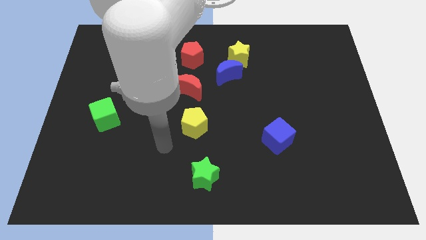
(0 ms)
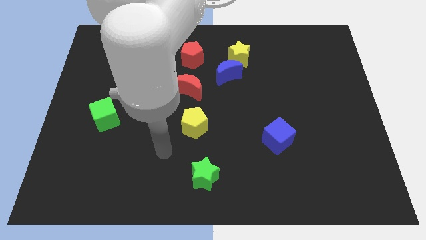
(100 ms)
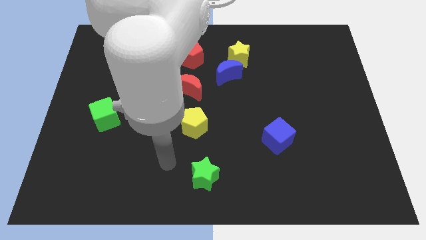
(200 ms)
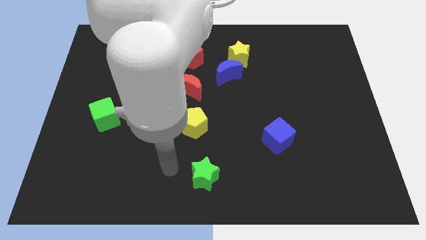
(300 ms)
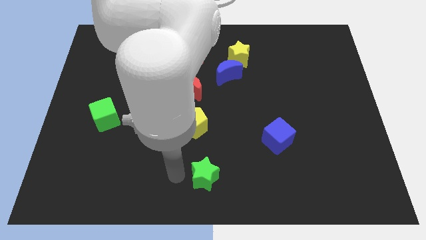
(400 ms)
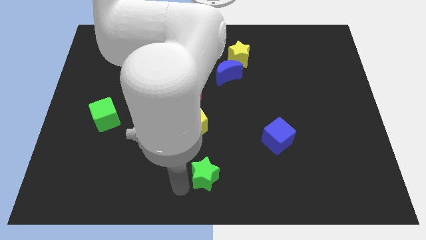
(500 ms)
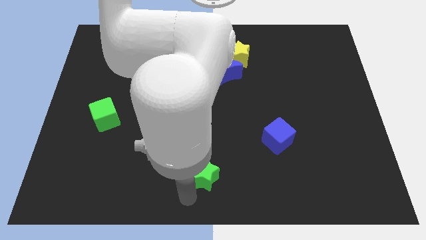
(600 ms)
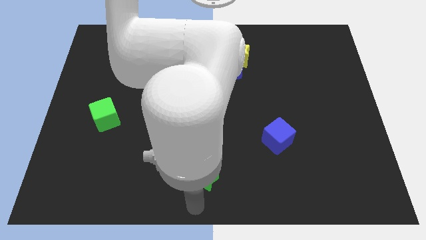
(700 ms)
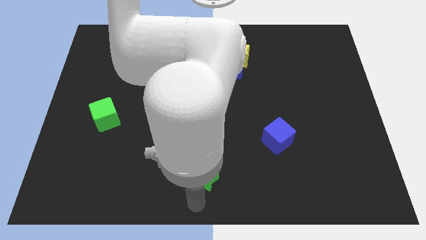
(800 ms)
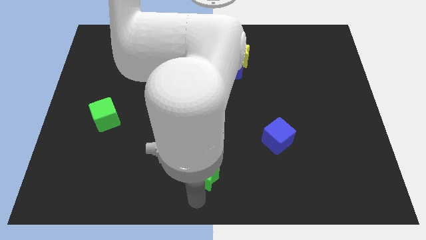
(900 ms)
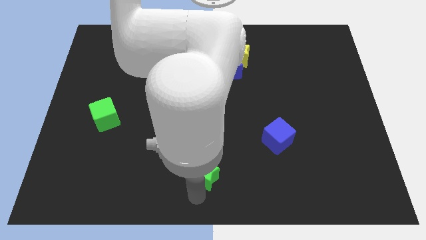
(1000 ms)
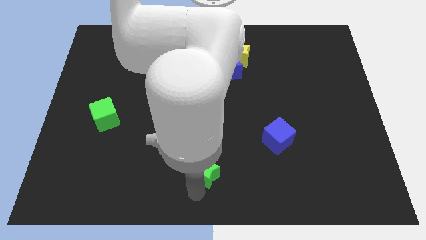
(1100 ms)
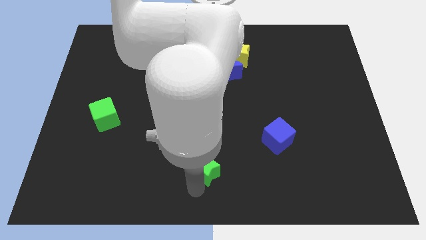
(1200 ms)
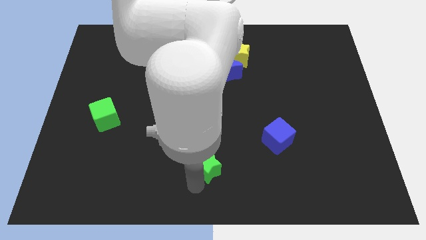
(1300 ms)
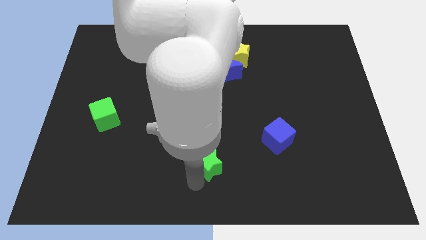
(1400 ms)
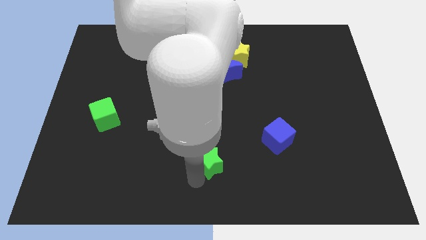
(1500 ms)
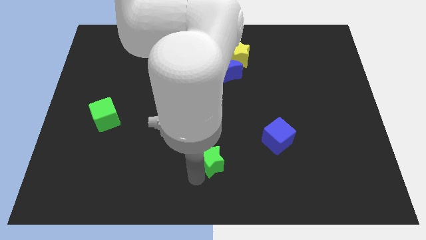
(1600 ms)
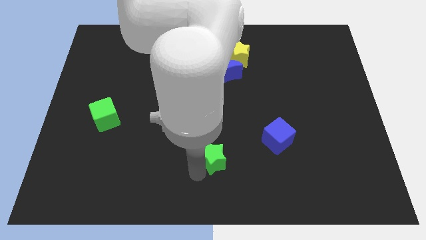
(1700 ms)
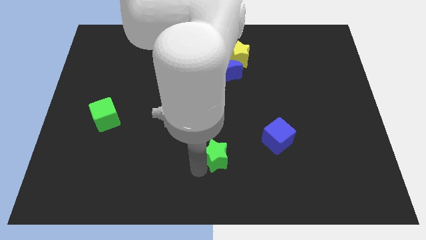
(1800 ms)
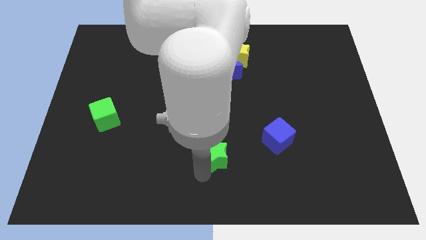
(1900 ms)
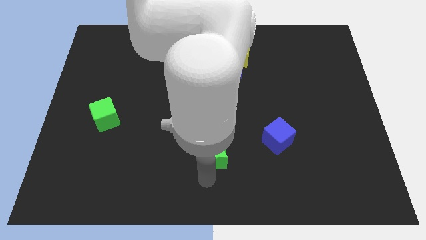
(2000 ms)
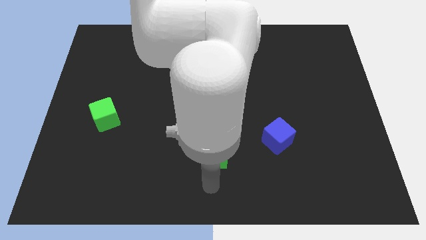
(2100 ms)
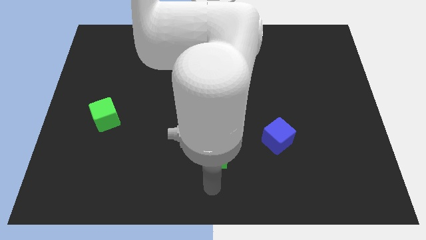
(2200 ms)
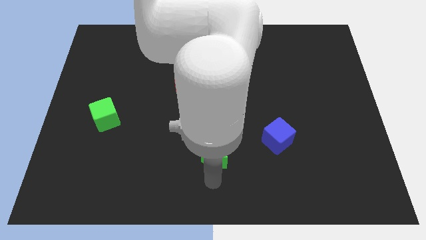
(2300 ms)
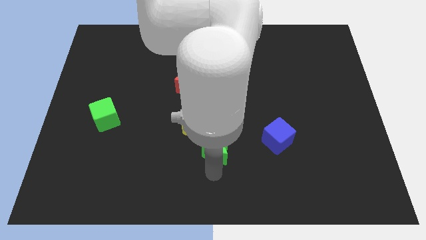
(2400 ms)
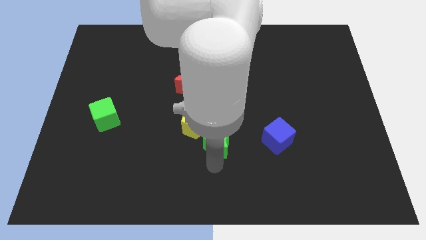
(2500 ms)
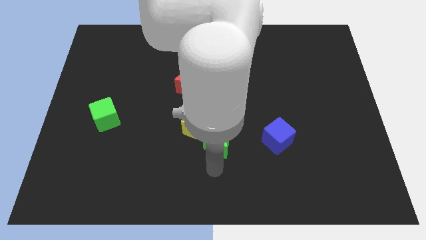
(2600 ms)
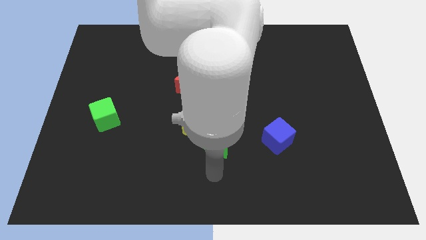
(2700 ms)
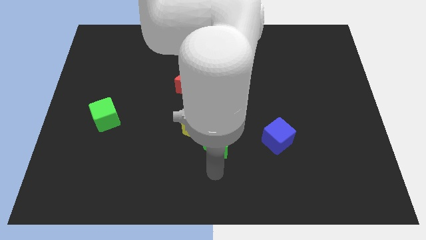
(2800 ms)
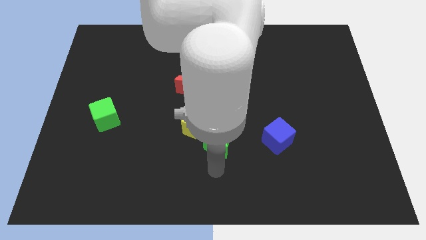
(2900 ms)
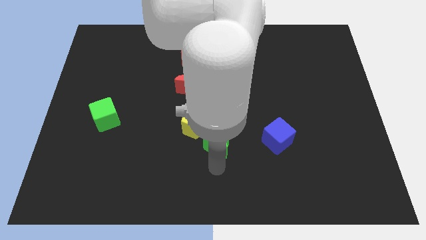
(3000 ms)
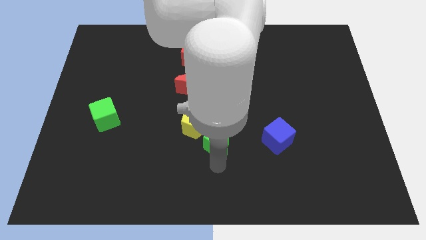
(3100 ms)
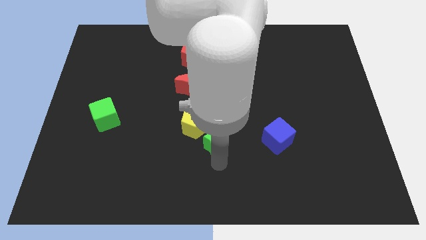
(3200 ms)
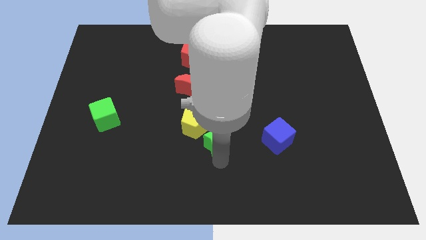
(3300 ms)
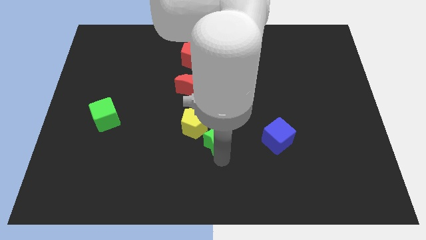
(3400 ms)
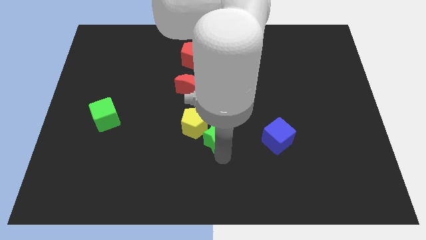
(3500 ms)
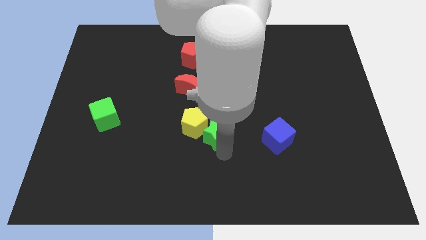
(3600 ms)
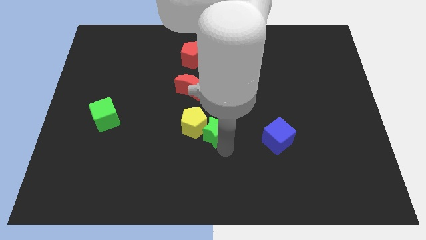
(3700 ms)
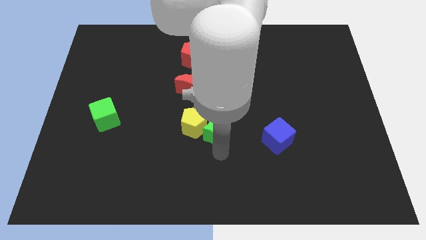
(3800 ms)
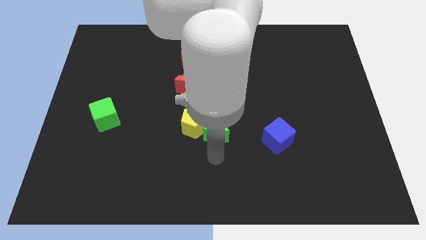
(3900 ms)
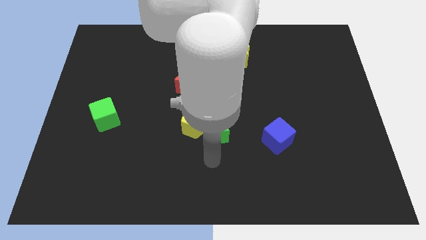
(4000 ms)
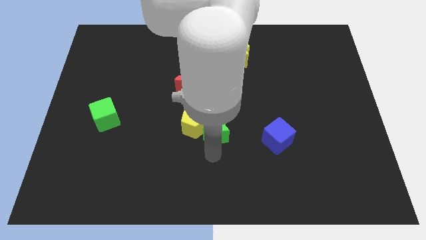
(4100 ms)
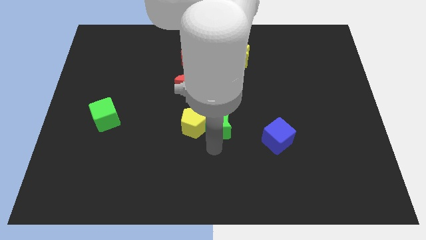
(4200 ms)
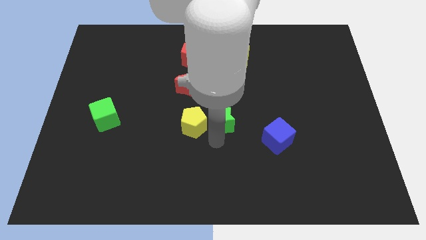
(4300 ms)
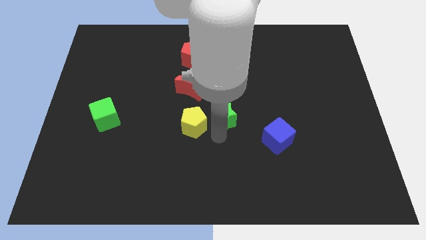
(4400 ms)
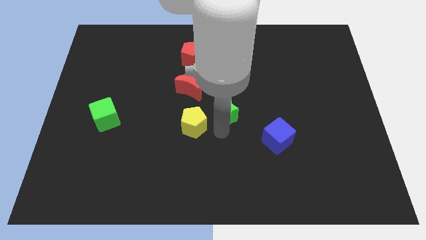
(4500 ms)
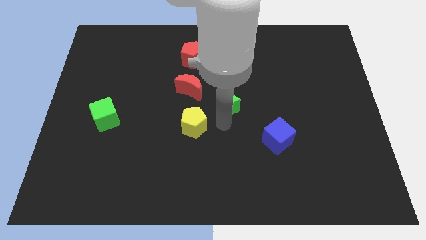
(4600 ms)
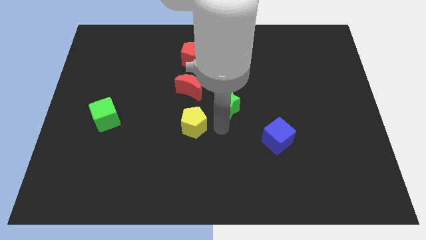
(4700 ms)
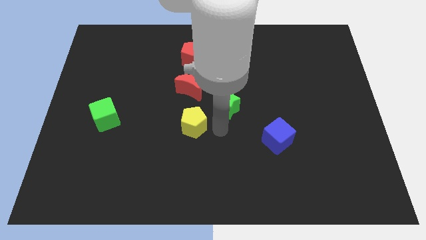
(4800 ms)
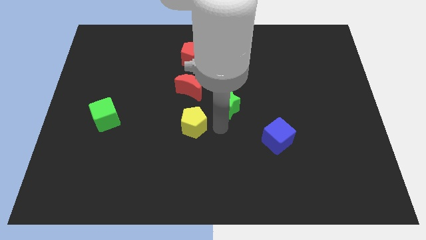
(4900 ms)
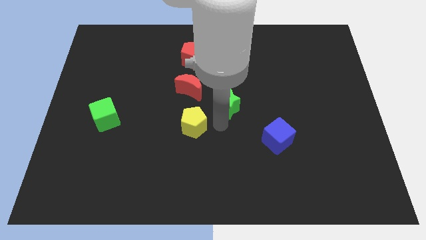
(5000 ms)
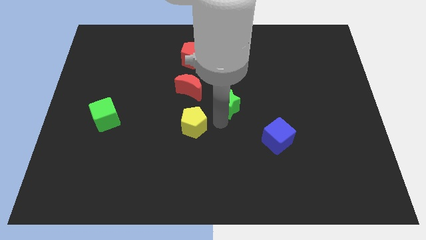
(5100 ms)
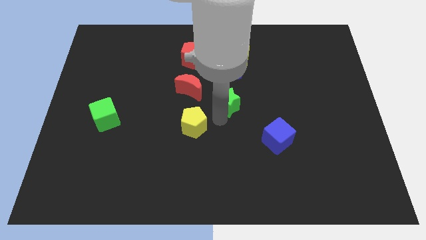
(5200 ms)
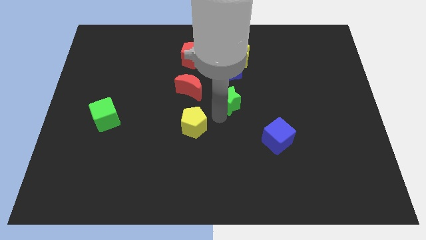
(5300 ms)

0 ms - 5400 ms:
push the green star just right of the red moon

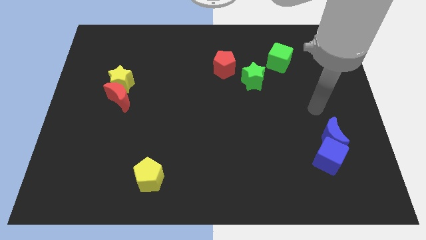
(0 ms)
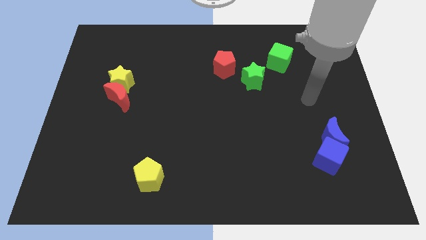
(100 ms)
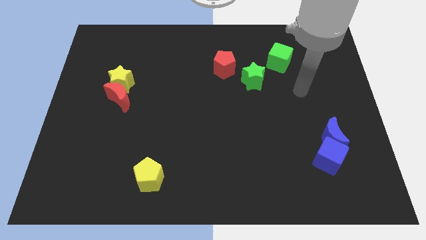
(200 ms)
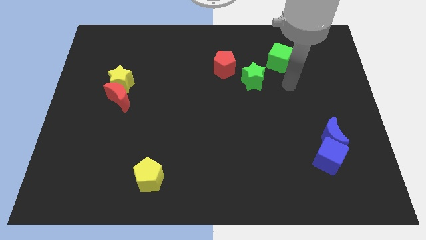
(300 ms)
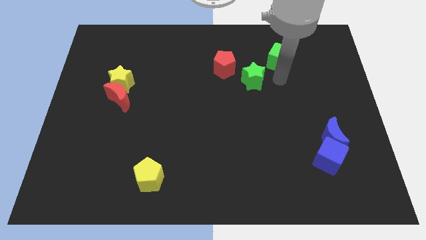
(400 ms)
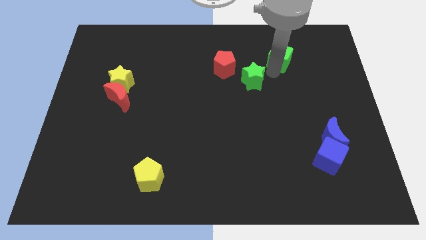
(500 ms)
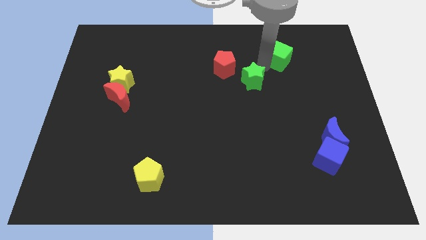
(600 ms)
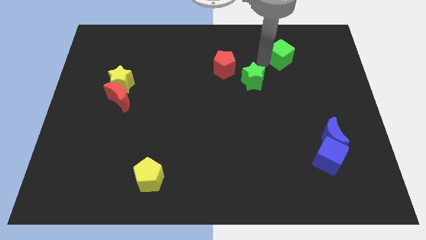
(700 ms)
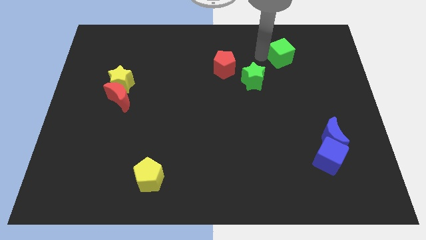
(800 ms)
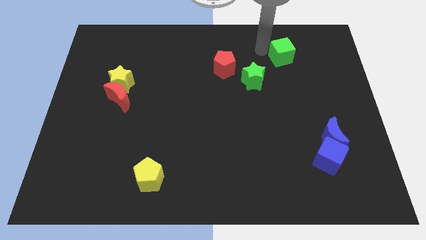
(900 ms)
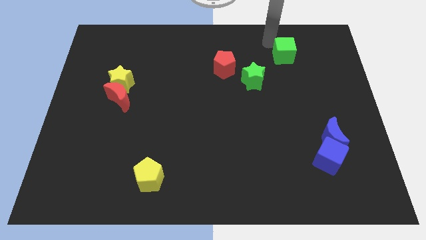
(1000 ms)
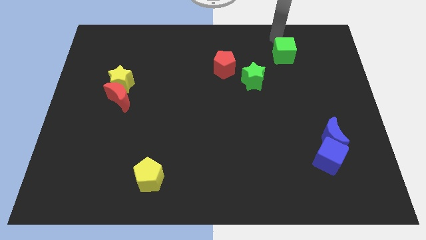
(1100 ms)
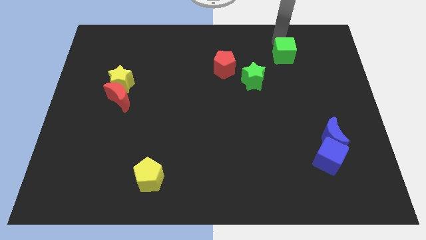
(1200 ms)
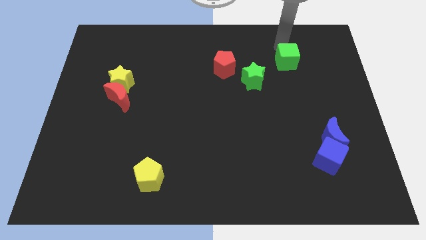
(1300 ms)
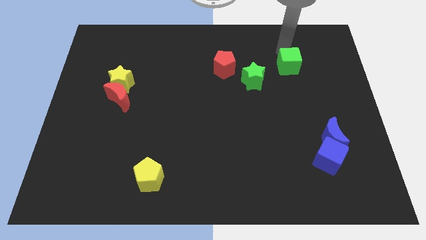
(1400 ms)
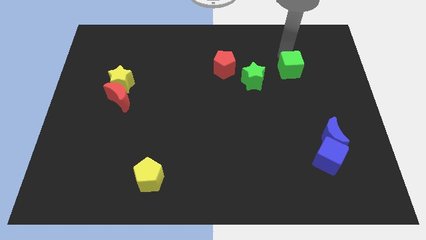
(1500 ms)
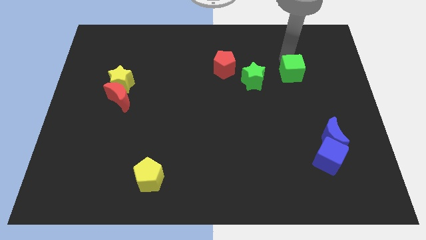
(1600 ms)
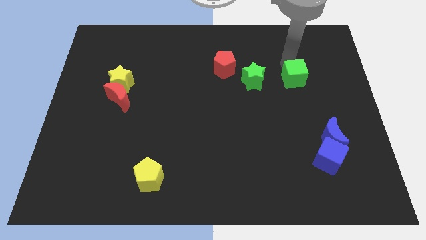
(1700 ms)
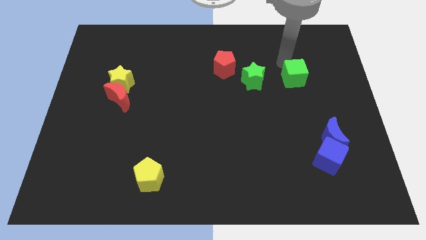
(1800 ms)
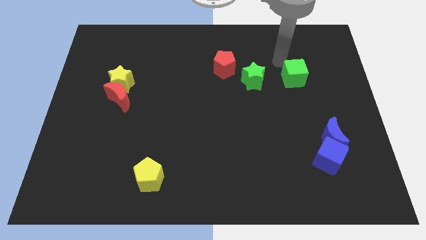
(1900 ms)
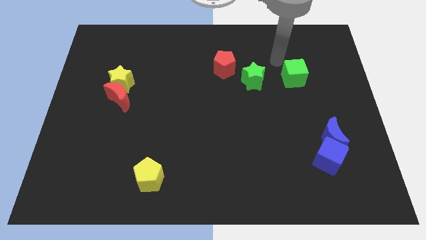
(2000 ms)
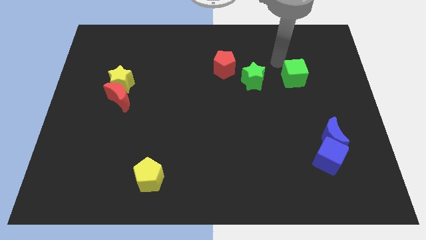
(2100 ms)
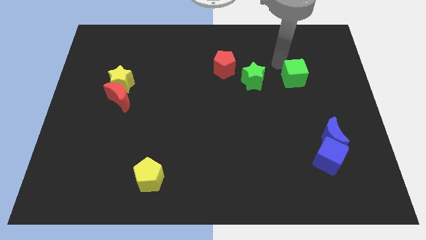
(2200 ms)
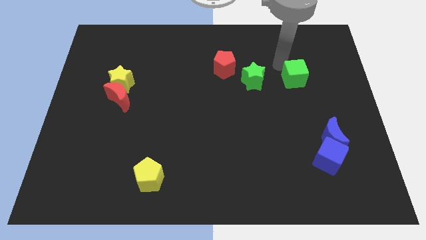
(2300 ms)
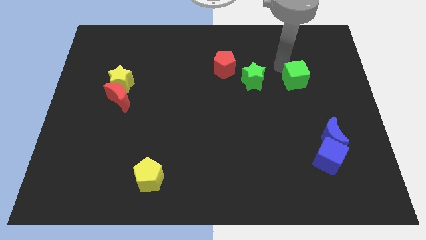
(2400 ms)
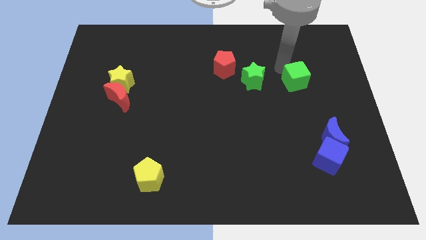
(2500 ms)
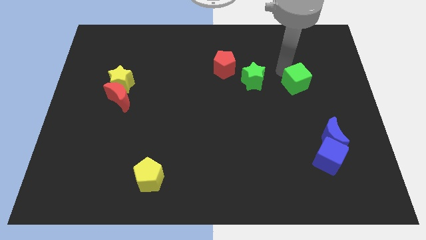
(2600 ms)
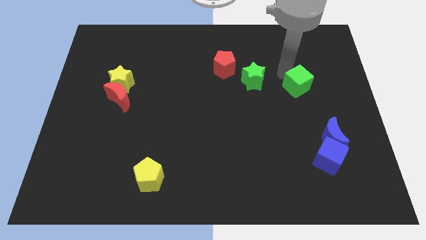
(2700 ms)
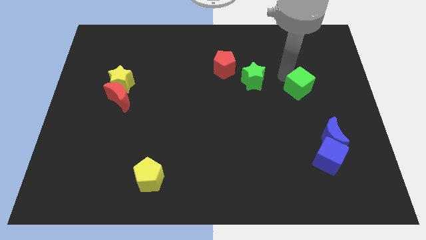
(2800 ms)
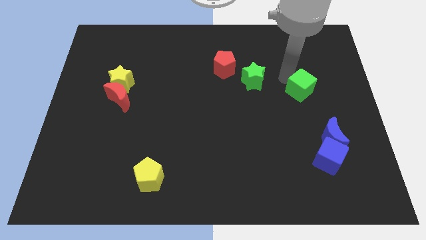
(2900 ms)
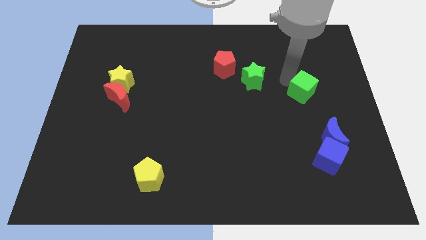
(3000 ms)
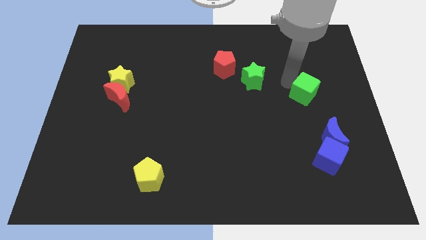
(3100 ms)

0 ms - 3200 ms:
move the green cube to the top of the blue moon
